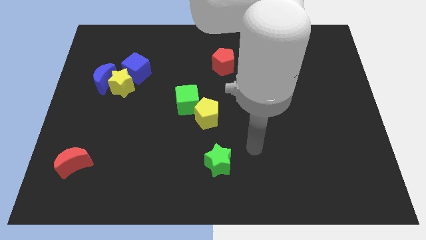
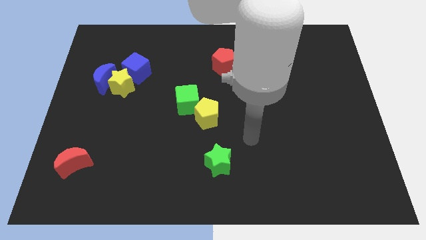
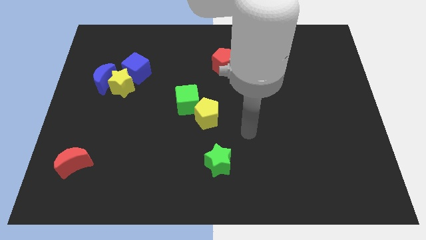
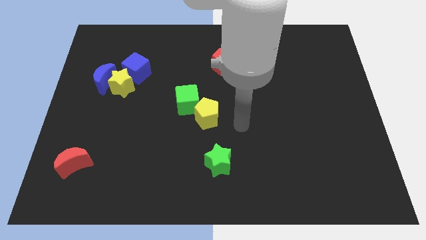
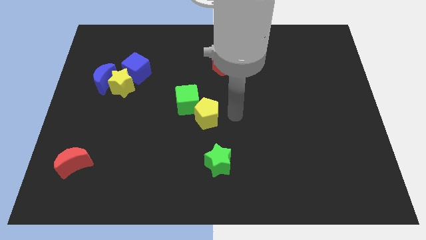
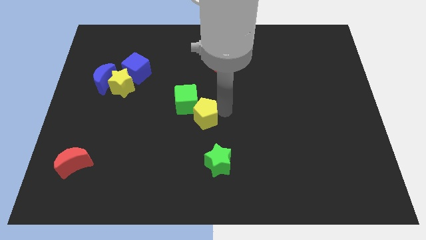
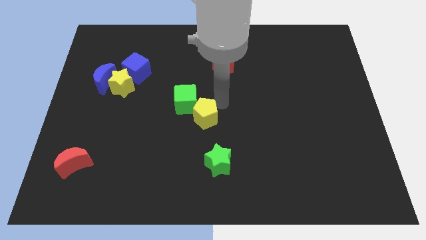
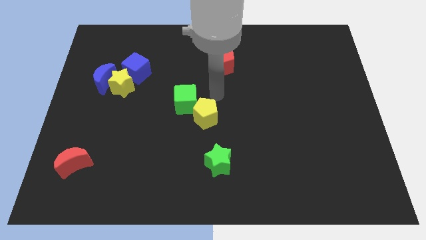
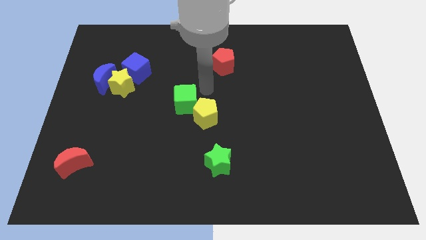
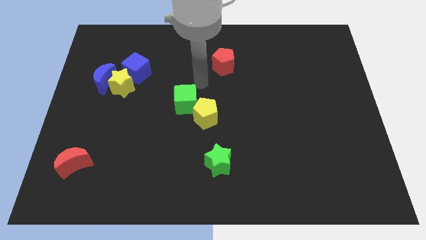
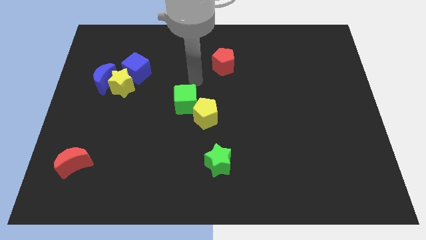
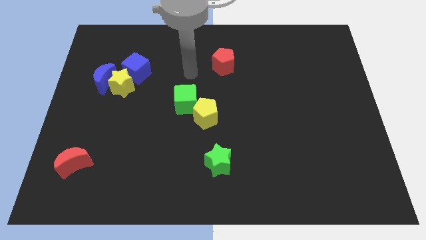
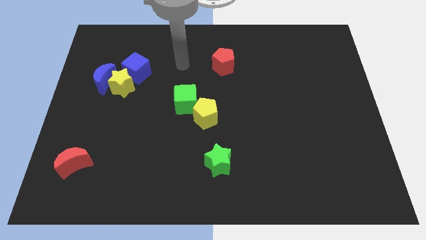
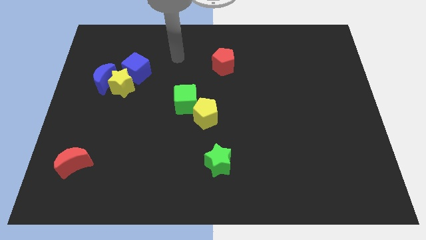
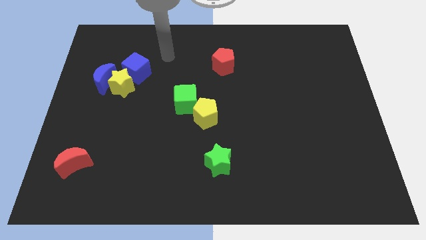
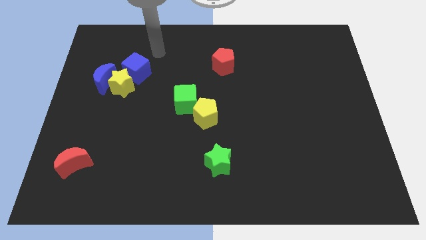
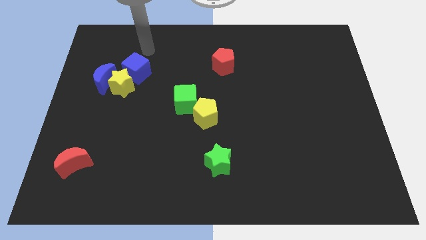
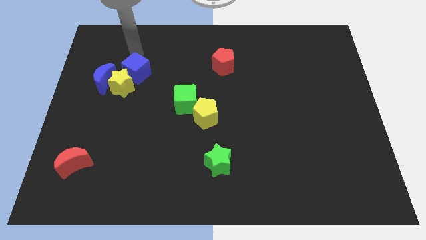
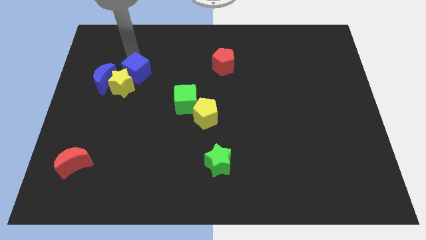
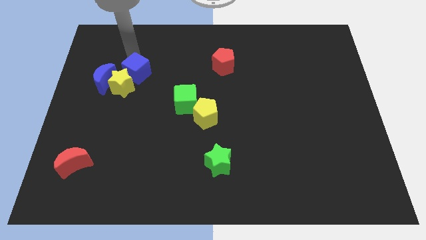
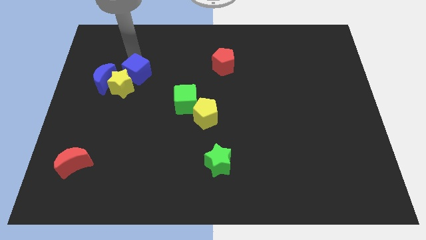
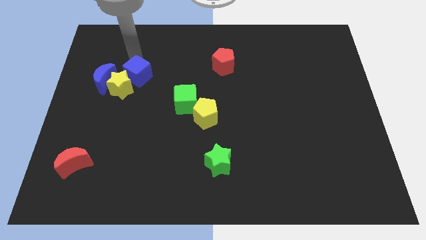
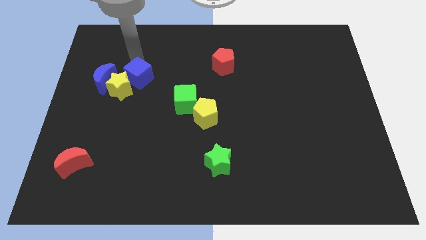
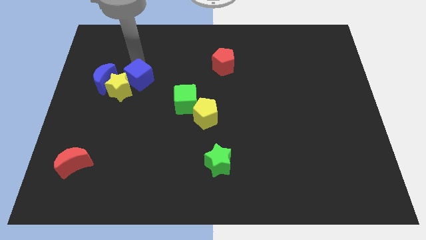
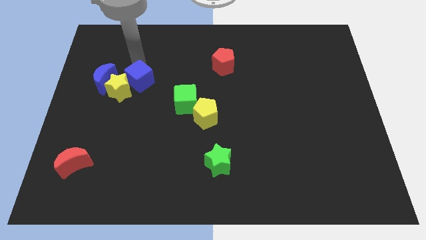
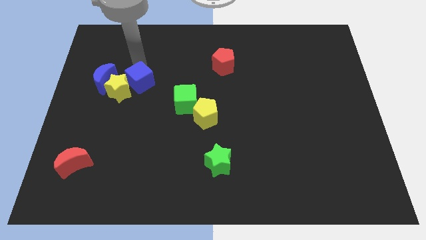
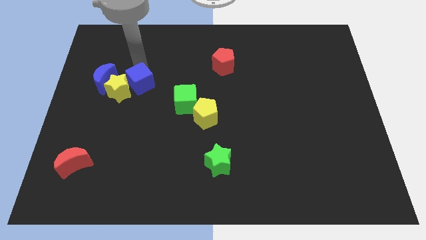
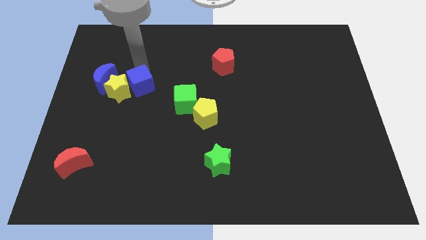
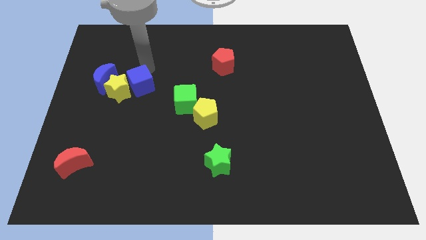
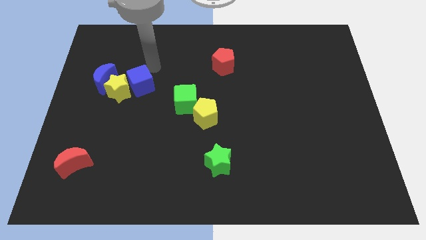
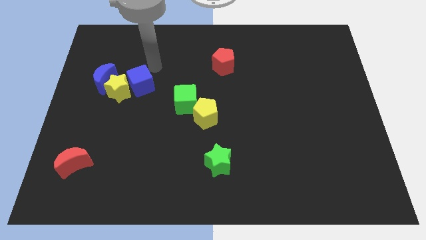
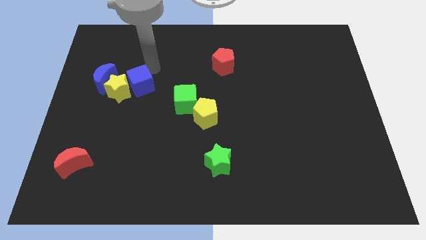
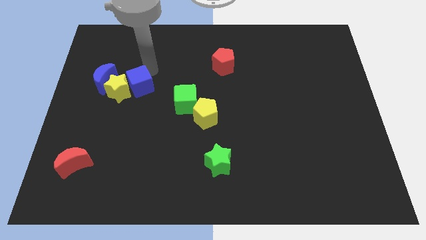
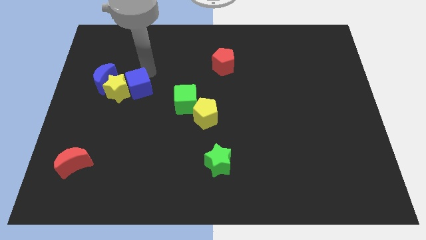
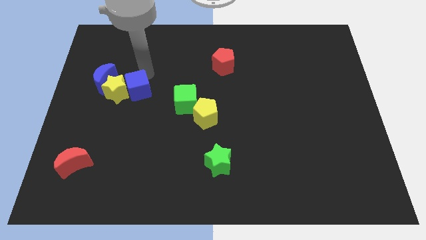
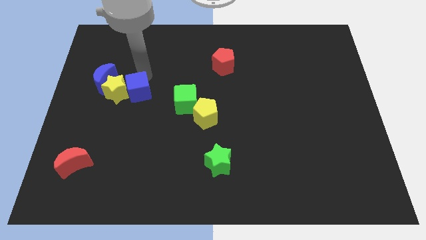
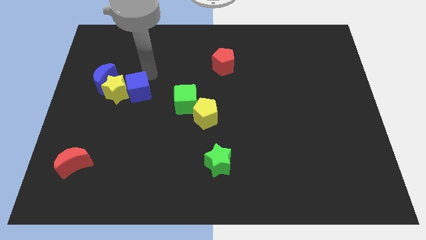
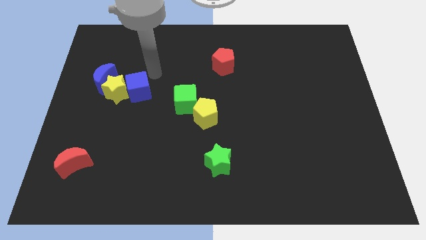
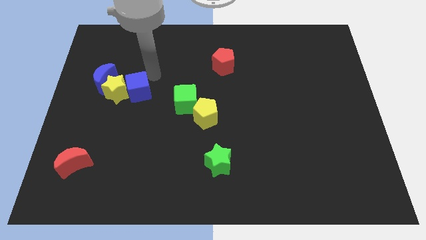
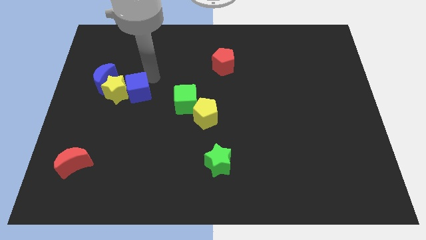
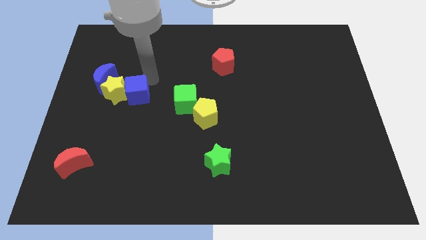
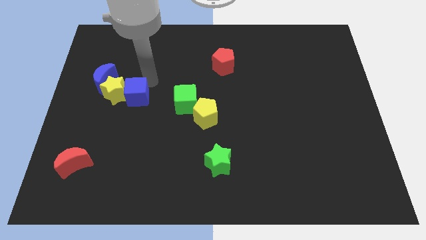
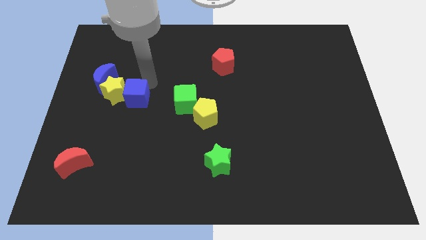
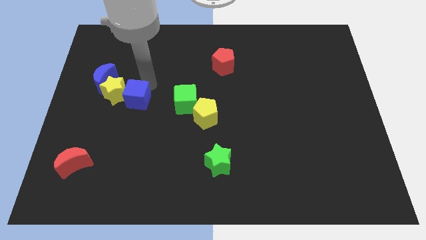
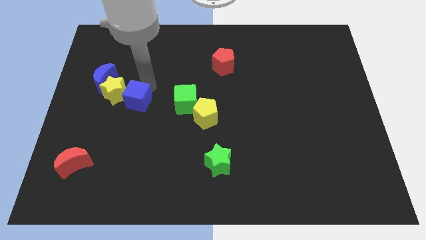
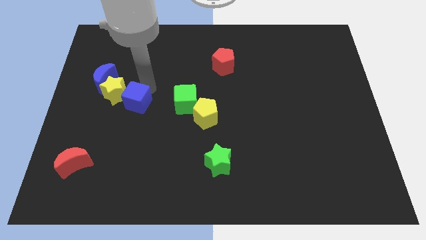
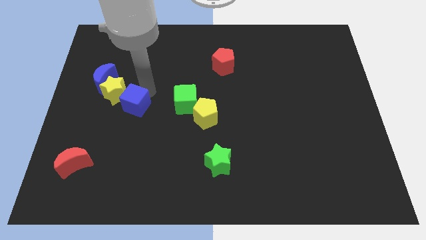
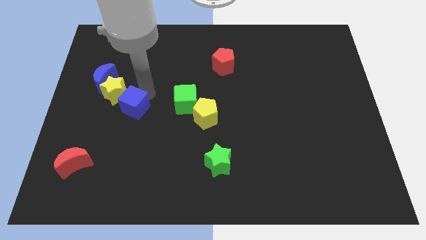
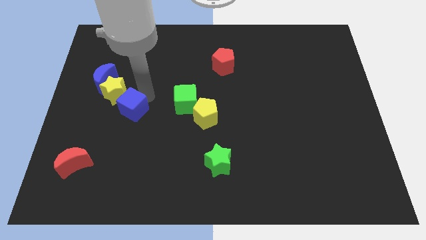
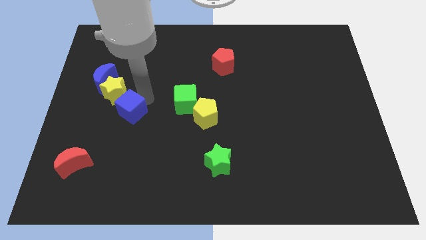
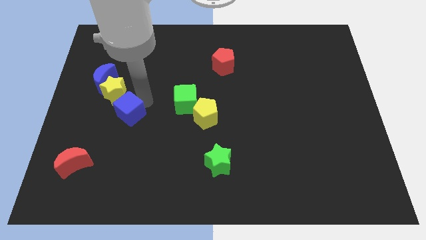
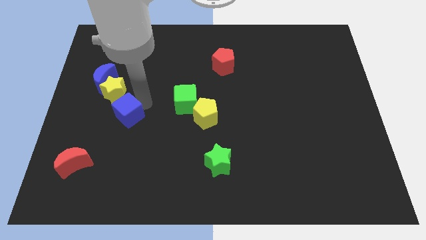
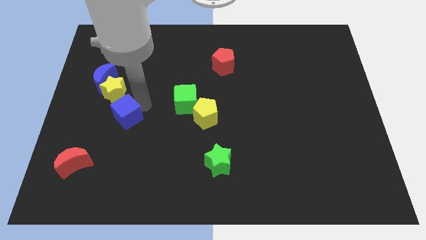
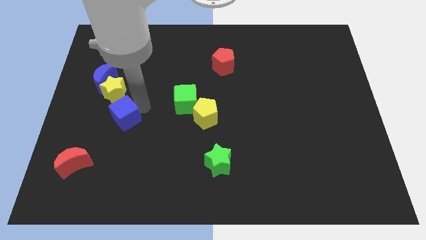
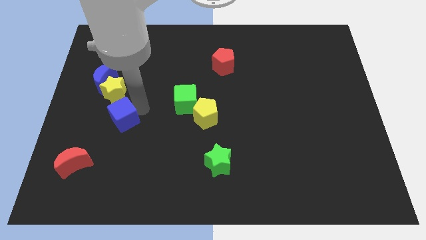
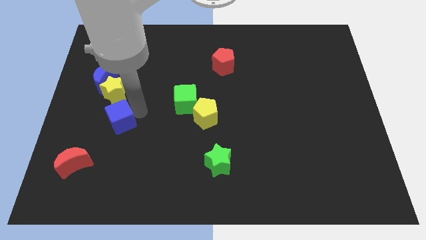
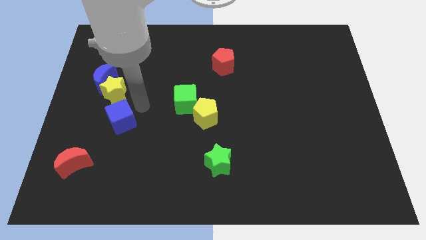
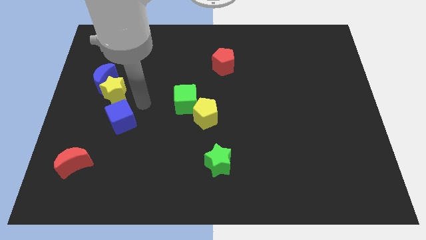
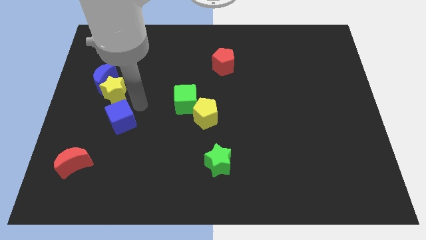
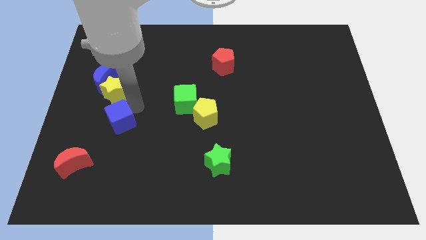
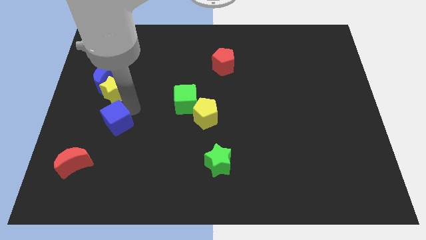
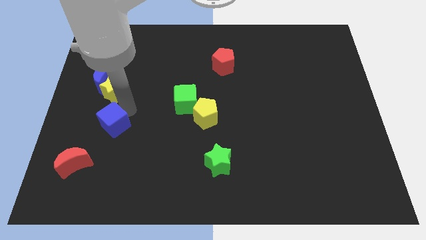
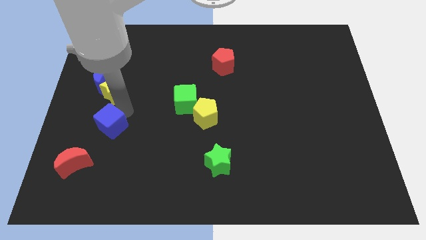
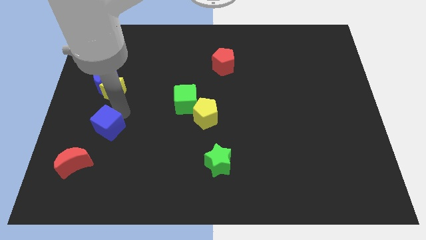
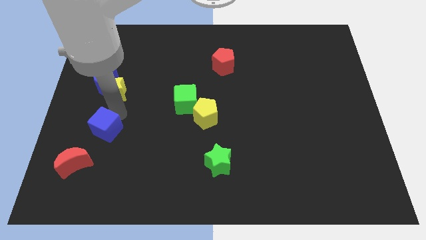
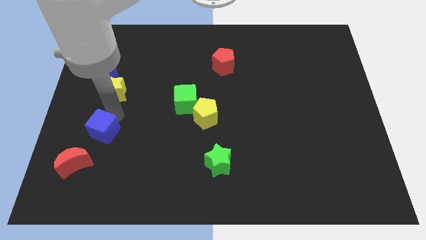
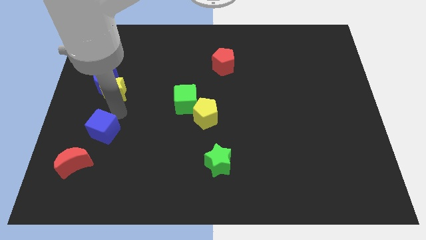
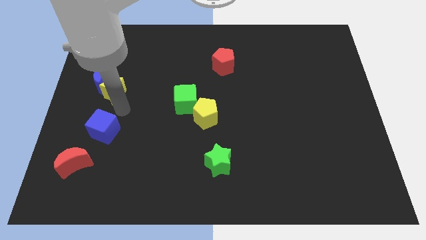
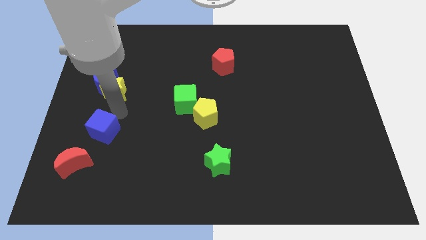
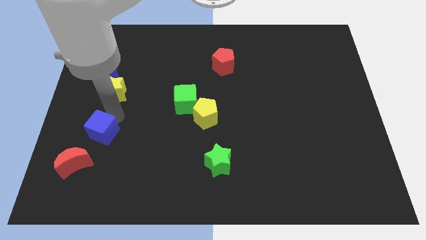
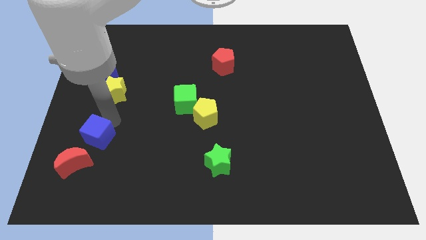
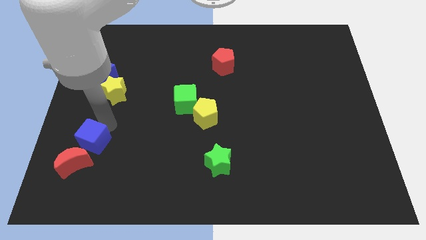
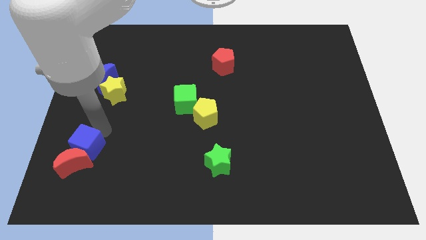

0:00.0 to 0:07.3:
slide the blue cube towards the red moon
